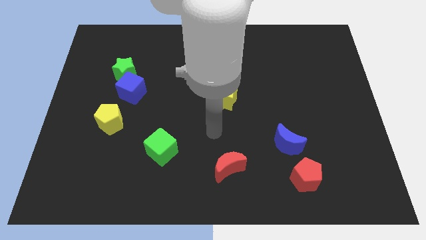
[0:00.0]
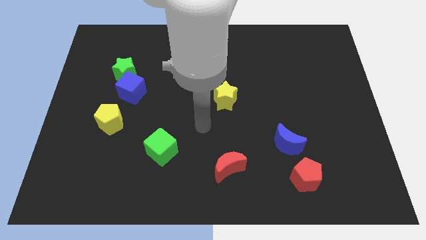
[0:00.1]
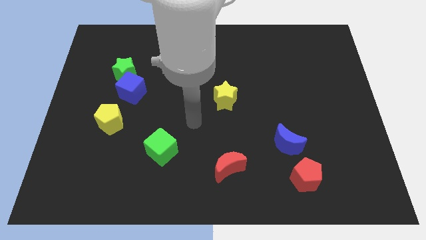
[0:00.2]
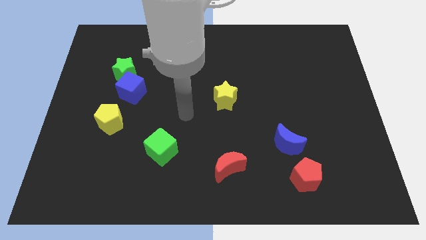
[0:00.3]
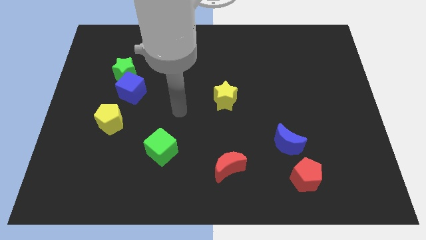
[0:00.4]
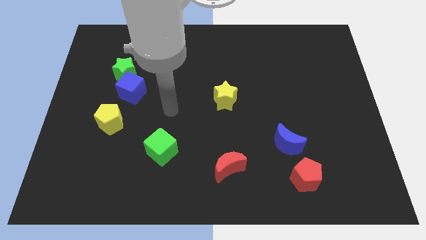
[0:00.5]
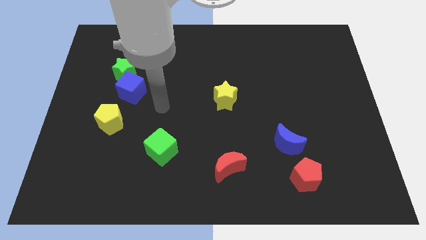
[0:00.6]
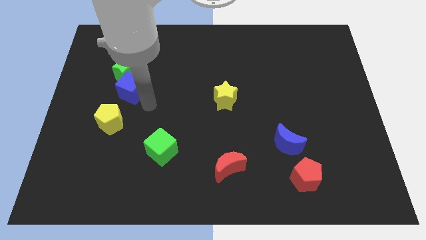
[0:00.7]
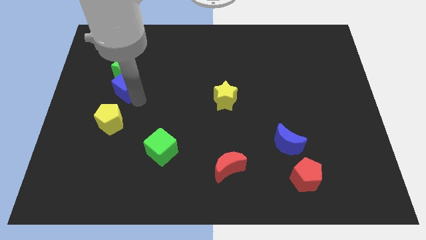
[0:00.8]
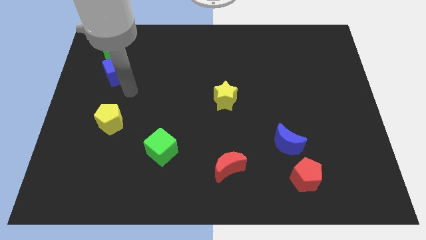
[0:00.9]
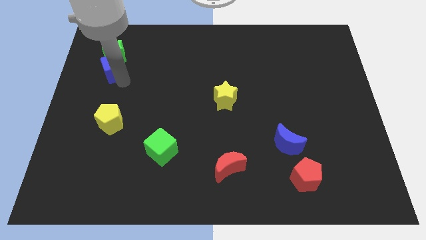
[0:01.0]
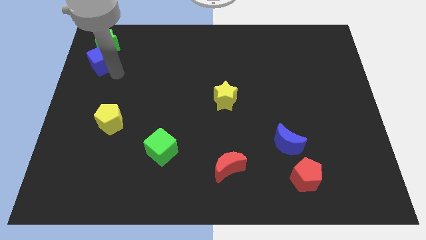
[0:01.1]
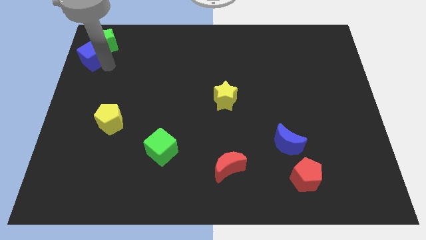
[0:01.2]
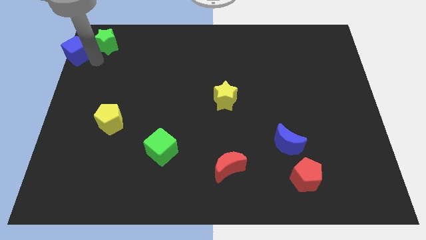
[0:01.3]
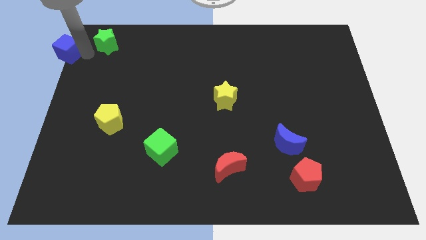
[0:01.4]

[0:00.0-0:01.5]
move the green star away from the blue cube

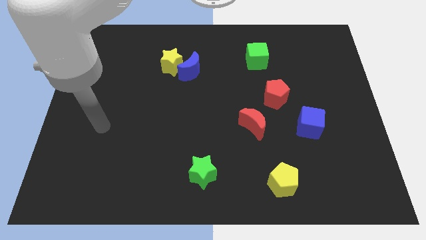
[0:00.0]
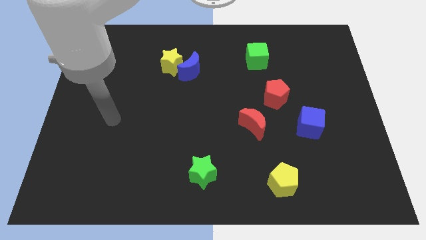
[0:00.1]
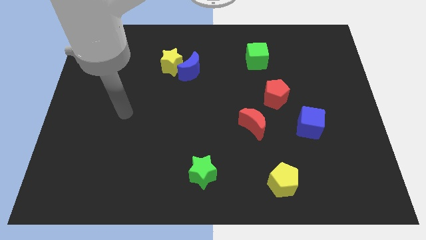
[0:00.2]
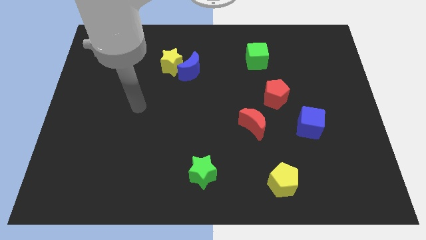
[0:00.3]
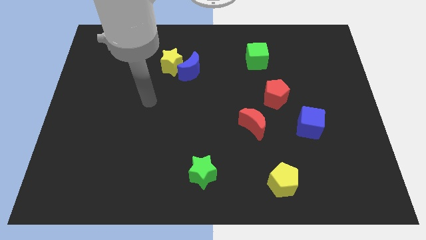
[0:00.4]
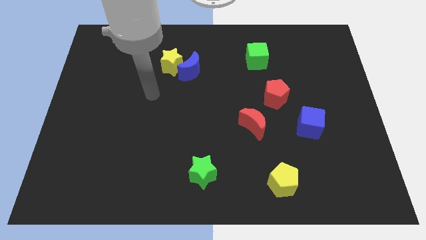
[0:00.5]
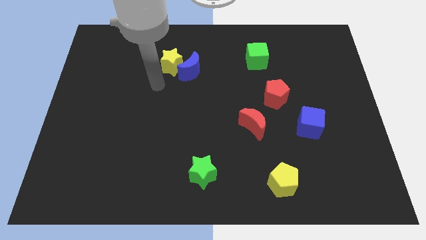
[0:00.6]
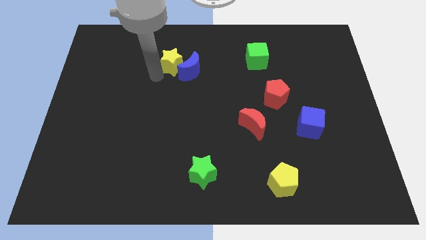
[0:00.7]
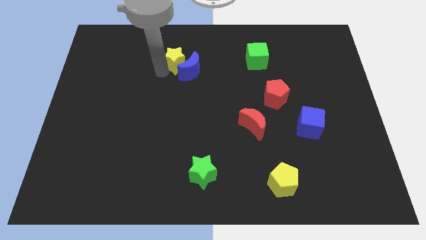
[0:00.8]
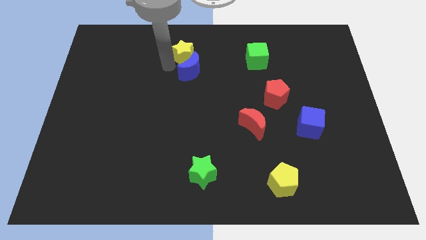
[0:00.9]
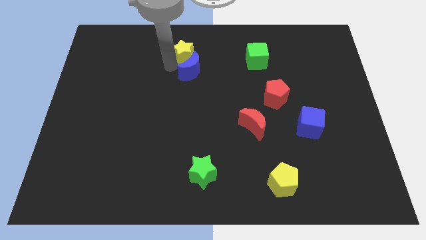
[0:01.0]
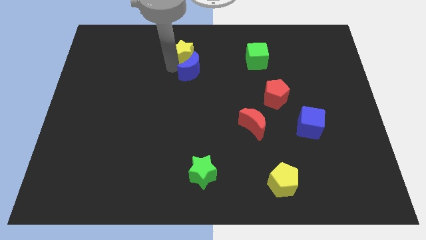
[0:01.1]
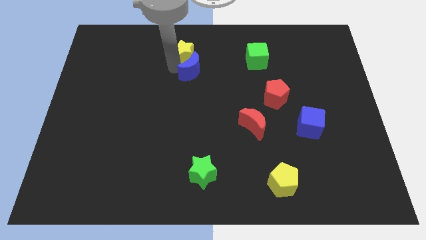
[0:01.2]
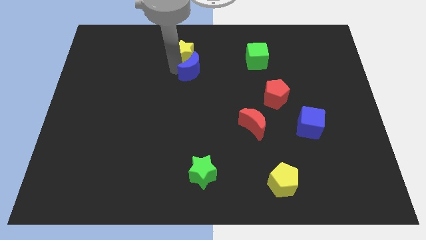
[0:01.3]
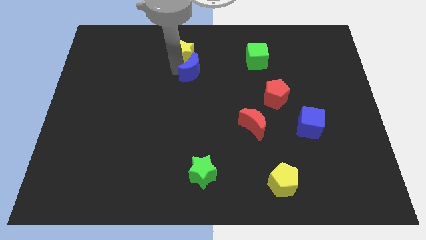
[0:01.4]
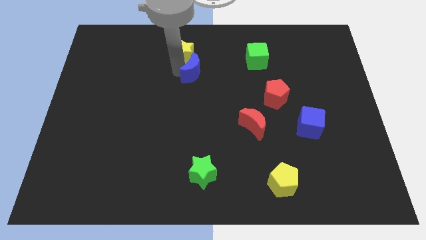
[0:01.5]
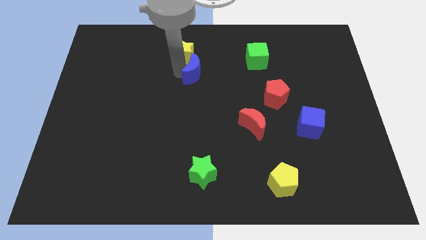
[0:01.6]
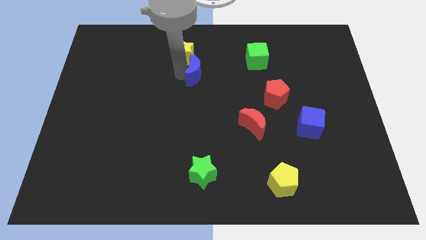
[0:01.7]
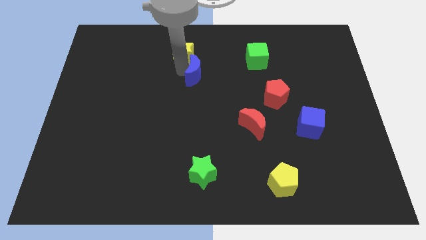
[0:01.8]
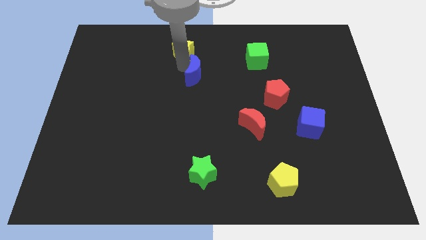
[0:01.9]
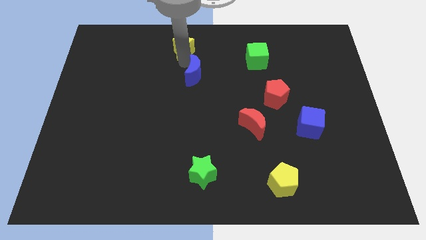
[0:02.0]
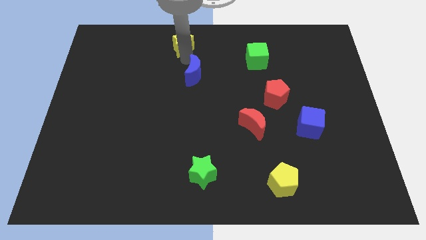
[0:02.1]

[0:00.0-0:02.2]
separate the blue moon from the yellow star

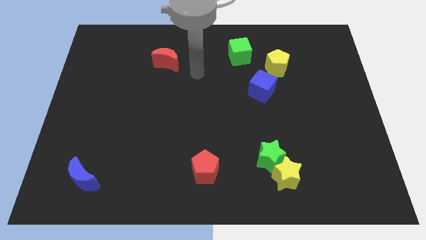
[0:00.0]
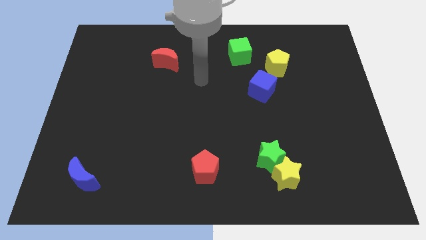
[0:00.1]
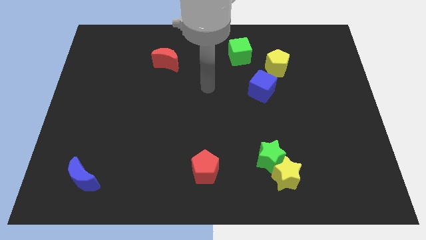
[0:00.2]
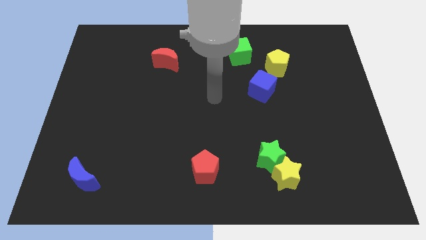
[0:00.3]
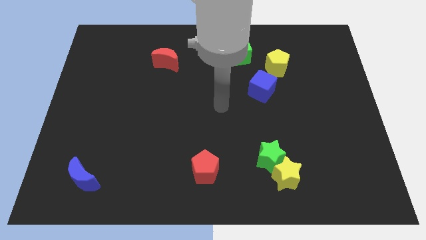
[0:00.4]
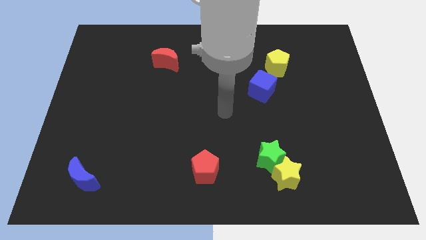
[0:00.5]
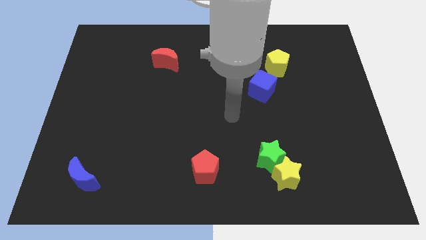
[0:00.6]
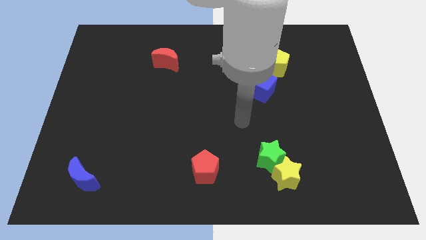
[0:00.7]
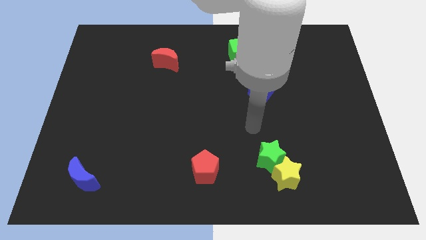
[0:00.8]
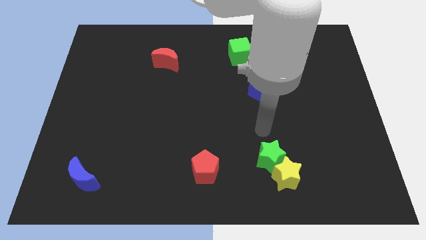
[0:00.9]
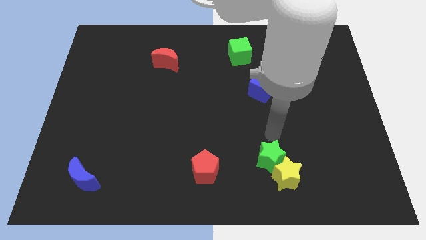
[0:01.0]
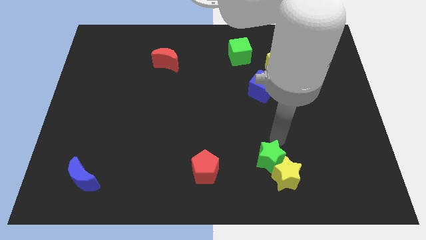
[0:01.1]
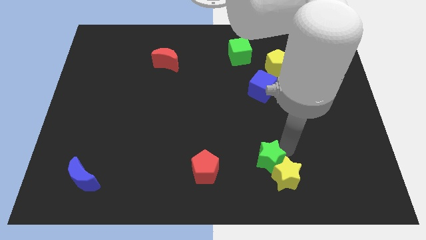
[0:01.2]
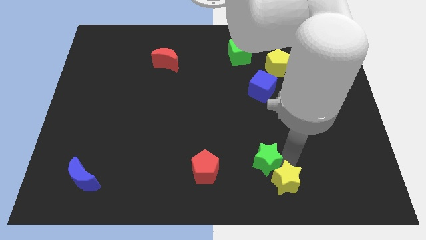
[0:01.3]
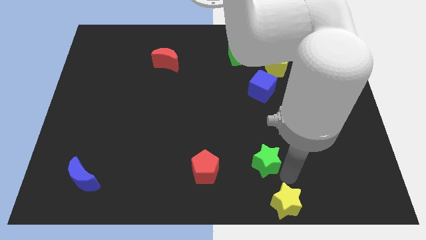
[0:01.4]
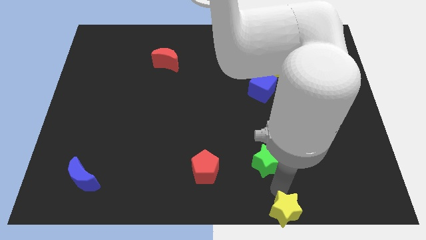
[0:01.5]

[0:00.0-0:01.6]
move the green star away from the yellow star

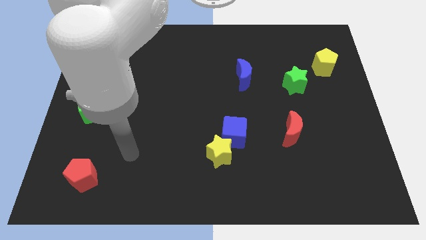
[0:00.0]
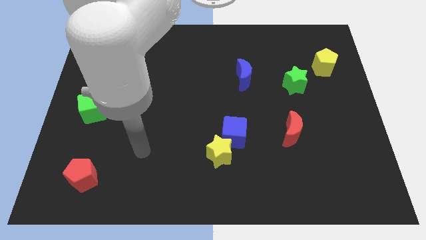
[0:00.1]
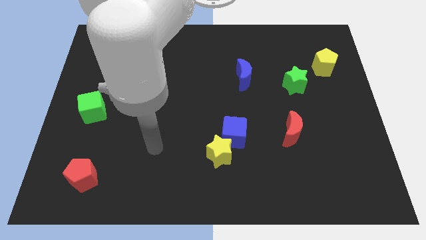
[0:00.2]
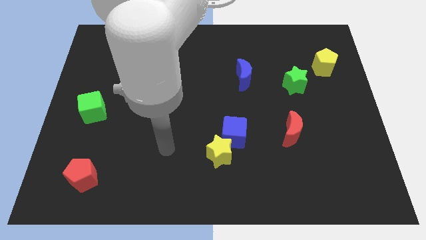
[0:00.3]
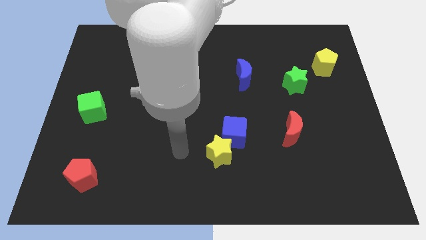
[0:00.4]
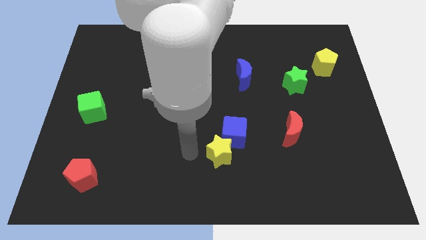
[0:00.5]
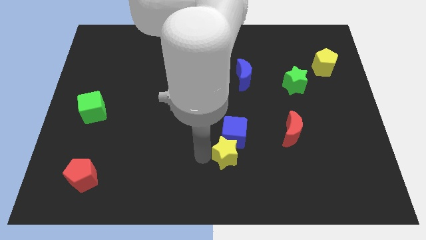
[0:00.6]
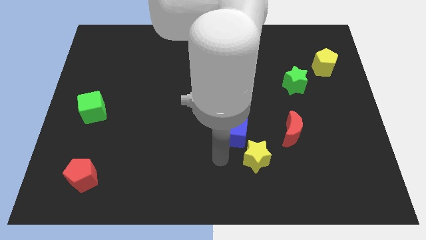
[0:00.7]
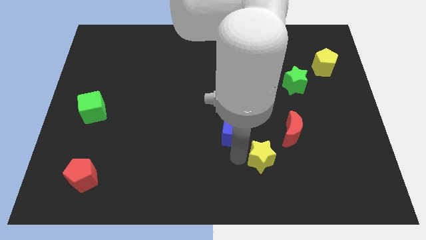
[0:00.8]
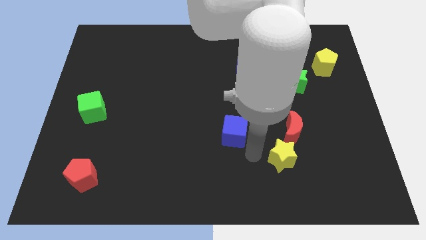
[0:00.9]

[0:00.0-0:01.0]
pull the blue cube apart from the yellow star

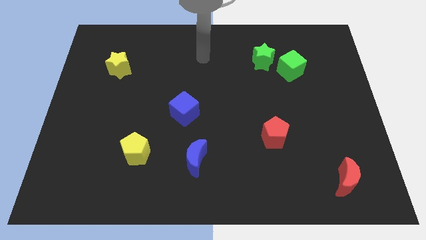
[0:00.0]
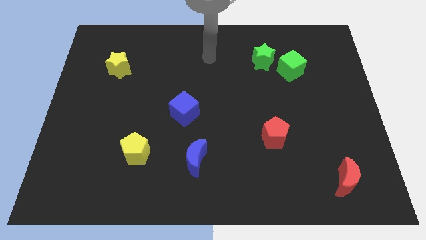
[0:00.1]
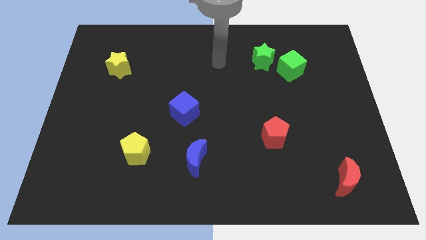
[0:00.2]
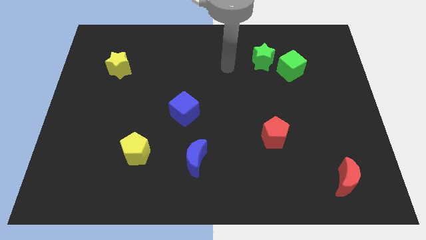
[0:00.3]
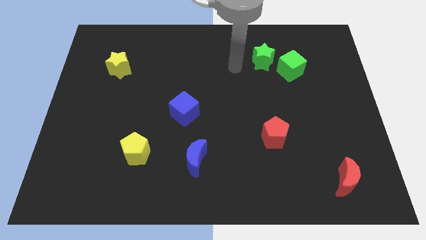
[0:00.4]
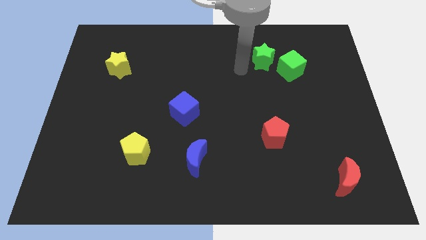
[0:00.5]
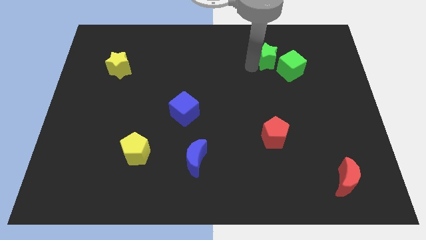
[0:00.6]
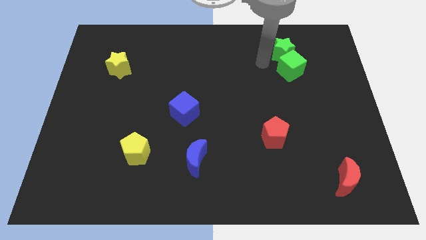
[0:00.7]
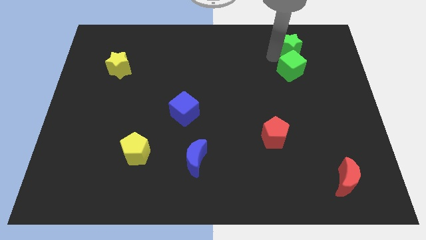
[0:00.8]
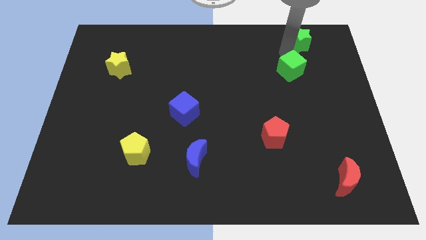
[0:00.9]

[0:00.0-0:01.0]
pull the green cube apart from the green star

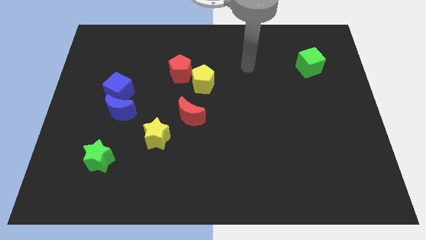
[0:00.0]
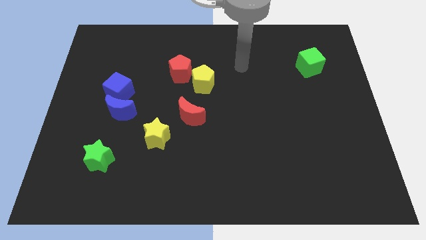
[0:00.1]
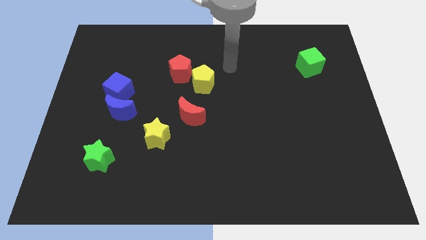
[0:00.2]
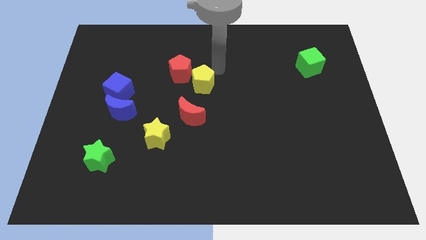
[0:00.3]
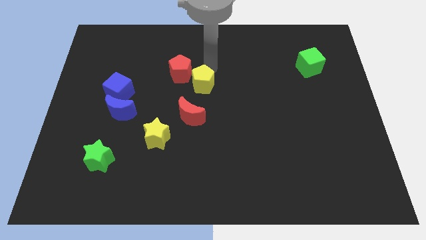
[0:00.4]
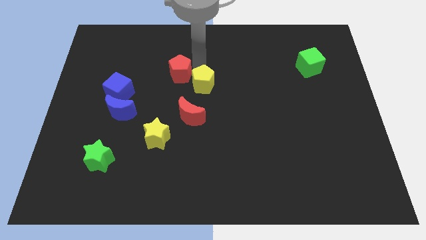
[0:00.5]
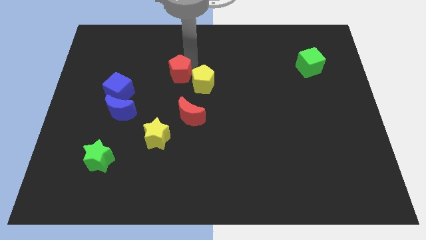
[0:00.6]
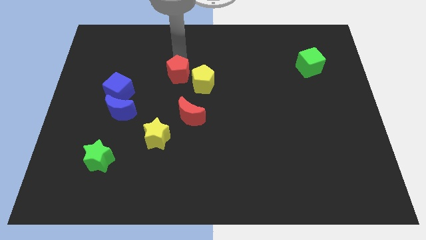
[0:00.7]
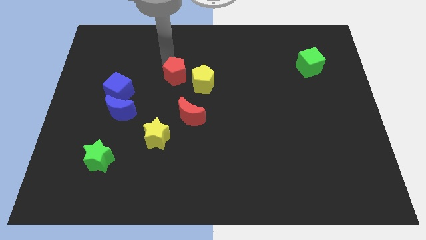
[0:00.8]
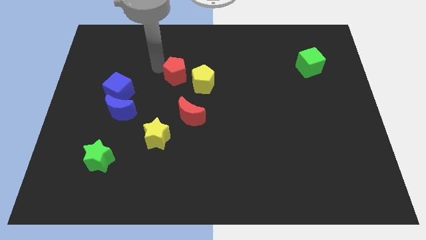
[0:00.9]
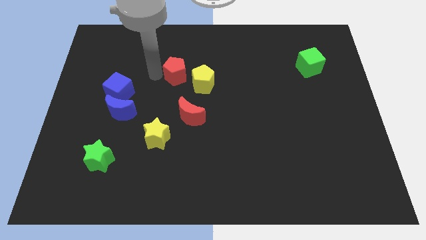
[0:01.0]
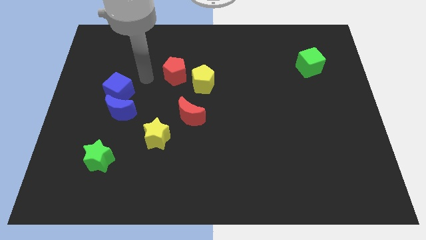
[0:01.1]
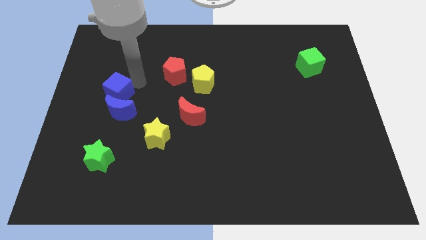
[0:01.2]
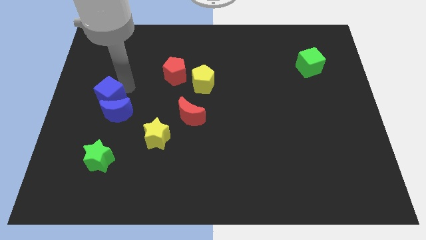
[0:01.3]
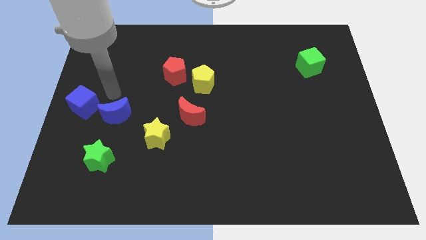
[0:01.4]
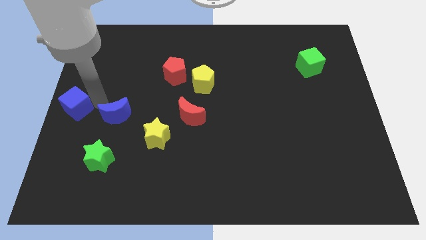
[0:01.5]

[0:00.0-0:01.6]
separate the blue moon from the blue cube

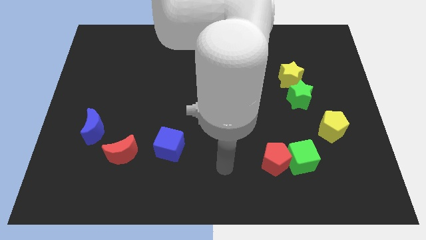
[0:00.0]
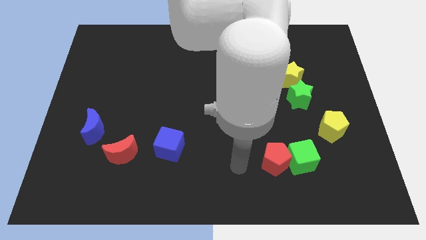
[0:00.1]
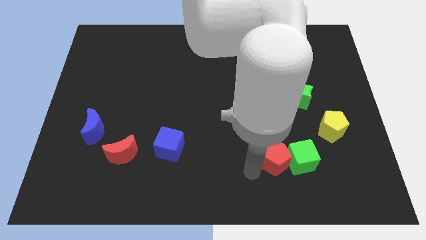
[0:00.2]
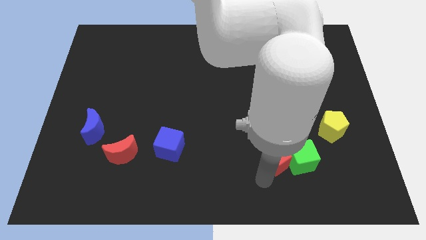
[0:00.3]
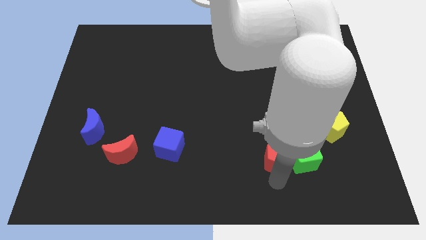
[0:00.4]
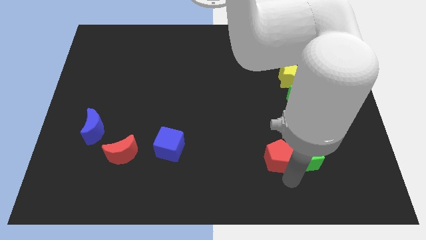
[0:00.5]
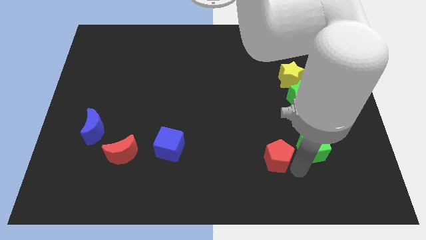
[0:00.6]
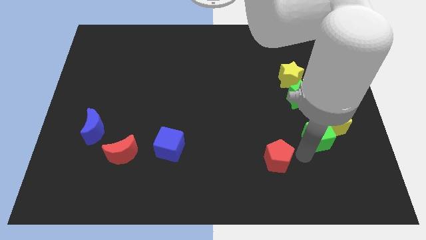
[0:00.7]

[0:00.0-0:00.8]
pull the red pentagon apart from the green cube
